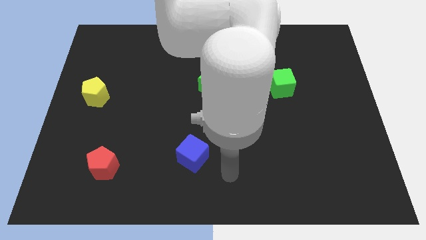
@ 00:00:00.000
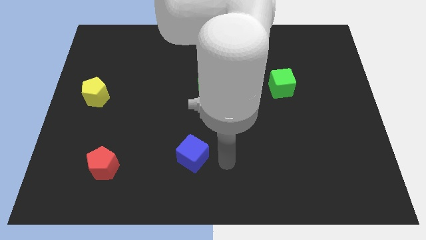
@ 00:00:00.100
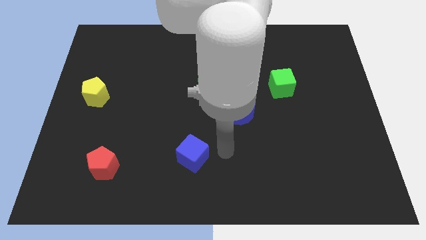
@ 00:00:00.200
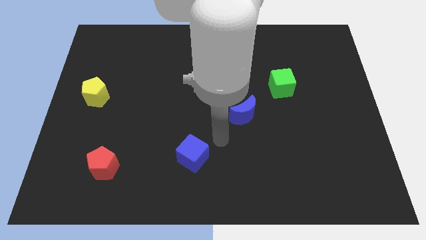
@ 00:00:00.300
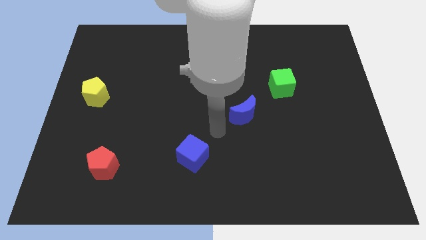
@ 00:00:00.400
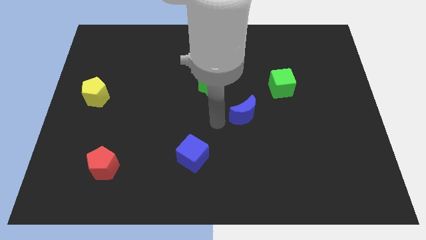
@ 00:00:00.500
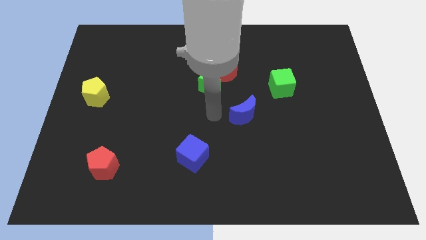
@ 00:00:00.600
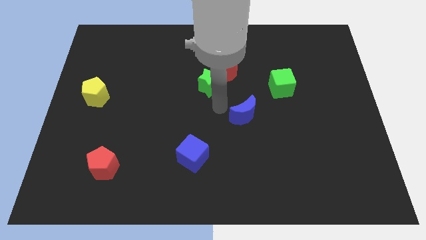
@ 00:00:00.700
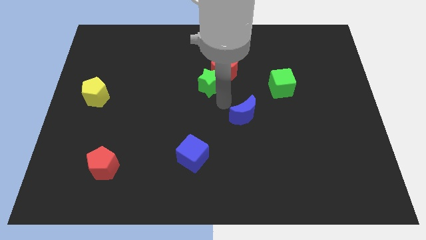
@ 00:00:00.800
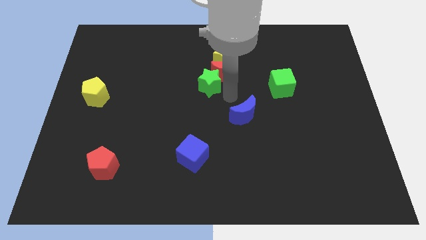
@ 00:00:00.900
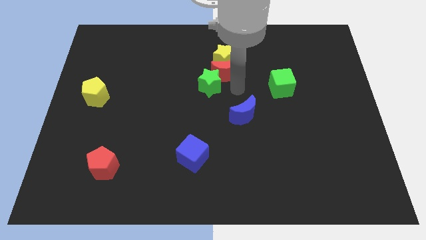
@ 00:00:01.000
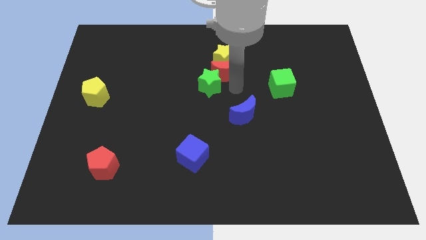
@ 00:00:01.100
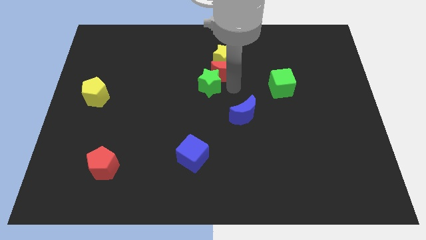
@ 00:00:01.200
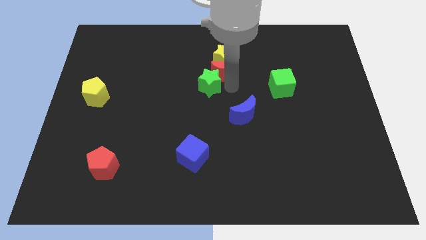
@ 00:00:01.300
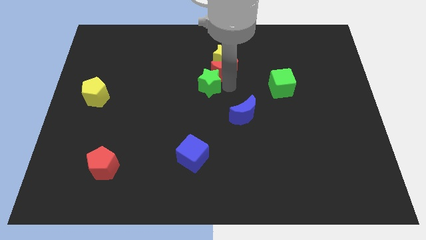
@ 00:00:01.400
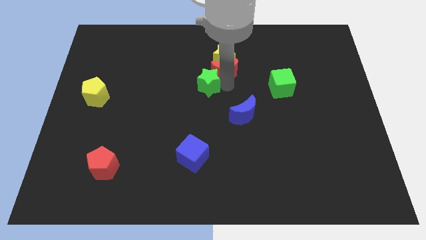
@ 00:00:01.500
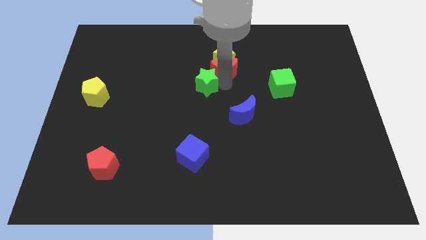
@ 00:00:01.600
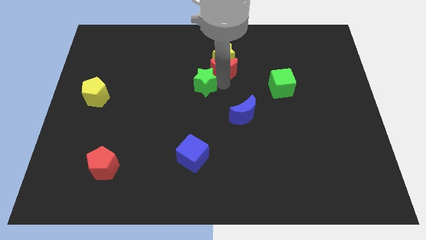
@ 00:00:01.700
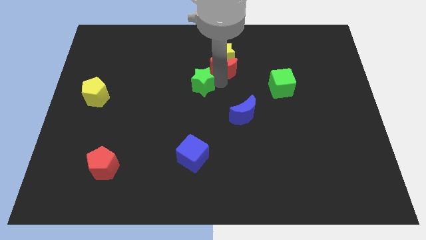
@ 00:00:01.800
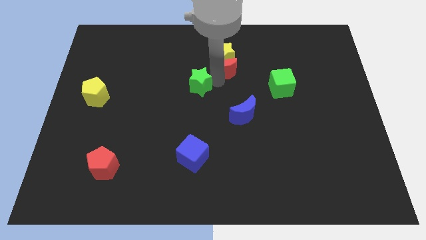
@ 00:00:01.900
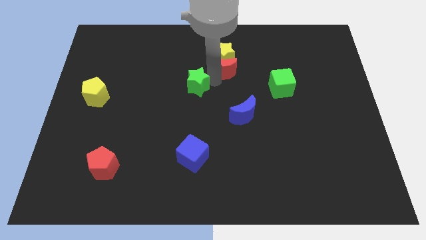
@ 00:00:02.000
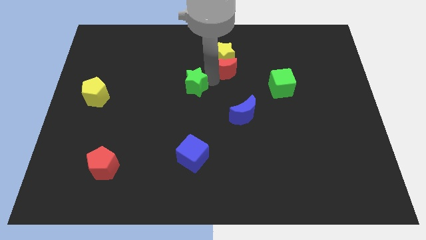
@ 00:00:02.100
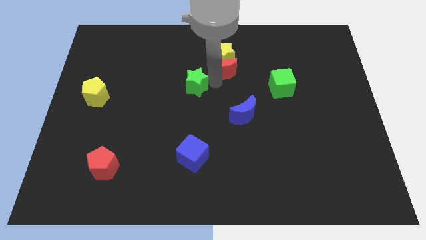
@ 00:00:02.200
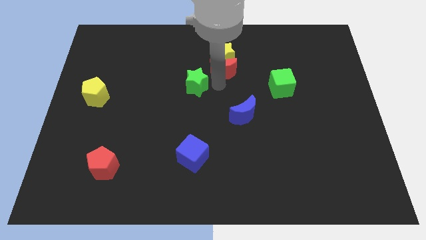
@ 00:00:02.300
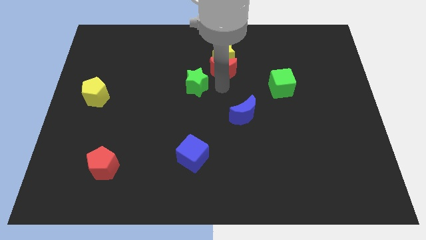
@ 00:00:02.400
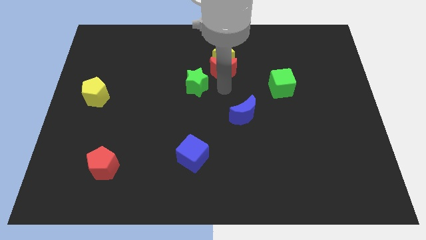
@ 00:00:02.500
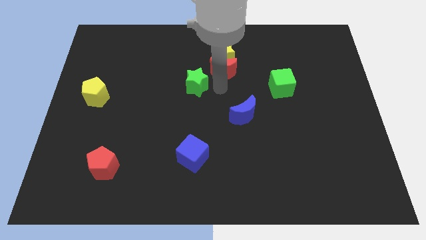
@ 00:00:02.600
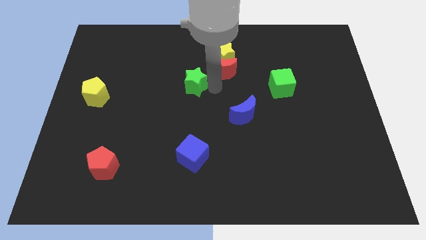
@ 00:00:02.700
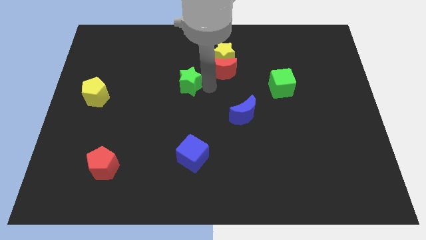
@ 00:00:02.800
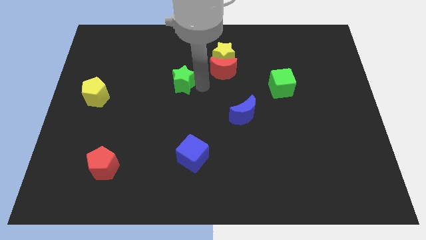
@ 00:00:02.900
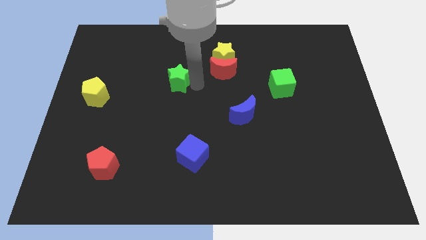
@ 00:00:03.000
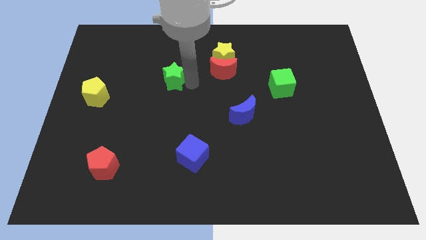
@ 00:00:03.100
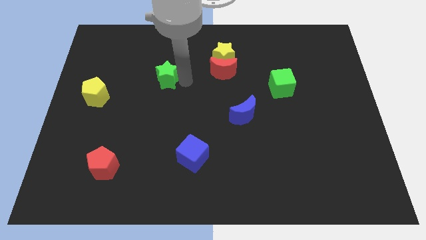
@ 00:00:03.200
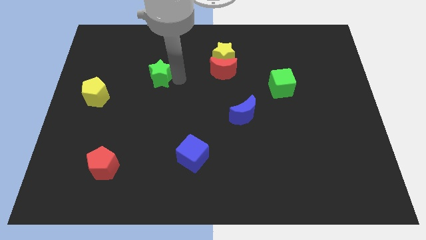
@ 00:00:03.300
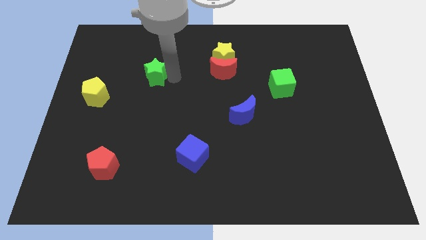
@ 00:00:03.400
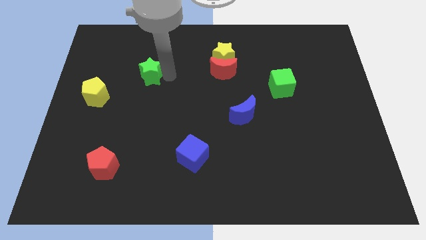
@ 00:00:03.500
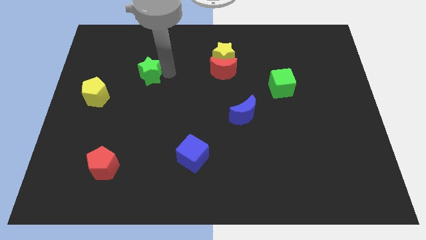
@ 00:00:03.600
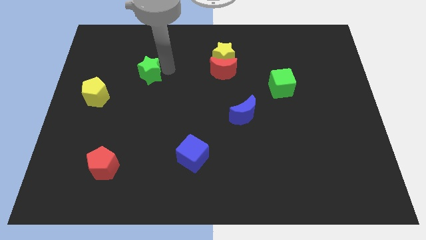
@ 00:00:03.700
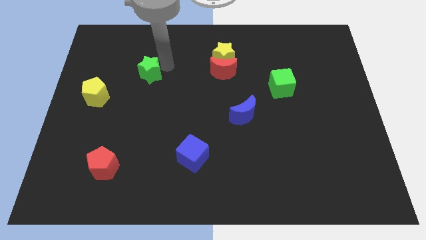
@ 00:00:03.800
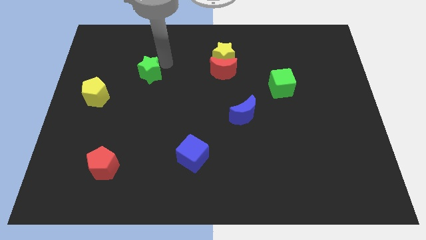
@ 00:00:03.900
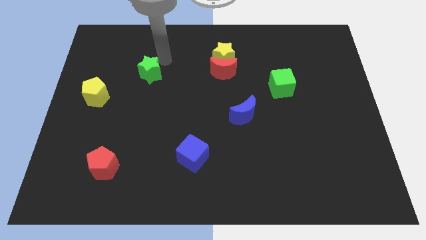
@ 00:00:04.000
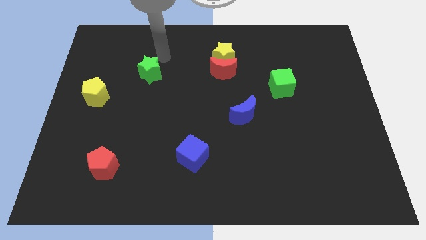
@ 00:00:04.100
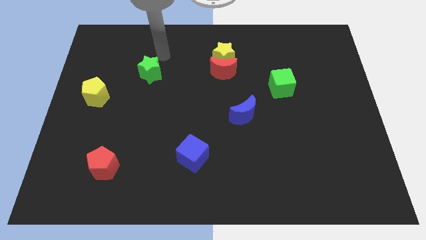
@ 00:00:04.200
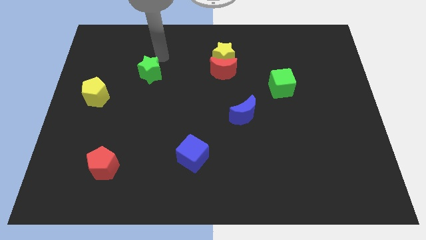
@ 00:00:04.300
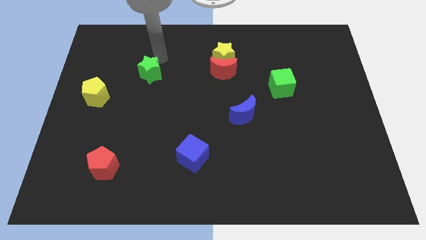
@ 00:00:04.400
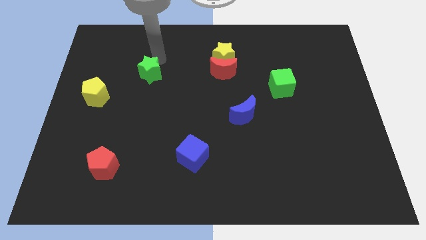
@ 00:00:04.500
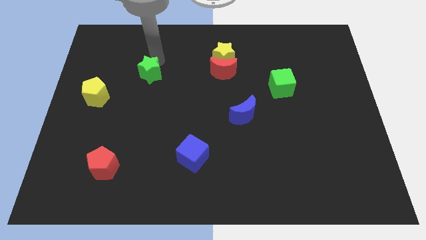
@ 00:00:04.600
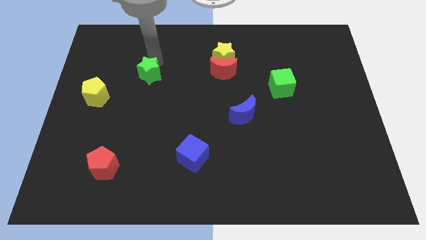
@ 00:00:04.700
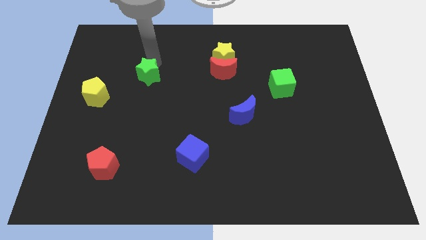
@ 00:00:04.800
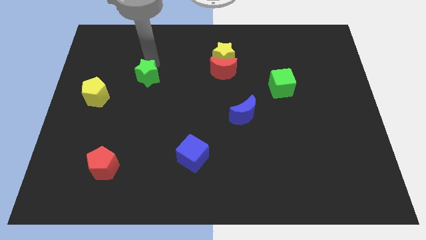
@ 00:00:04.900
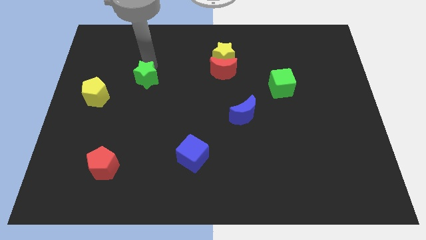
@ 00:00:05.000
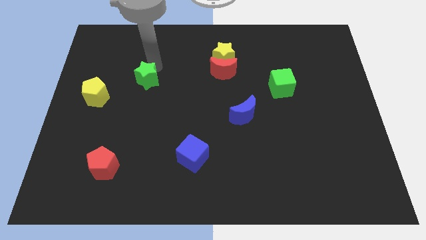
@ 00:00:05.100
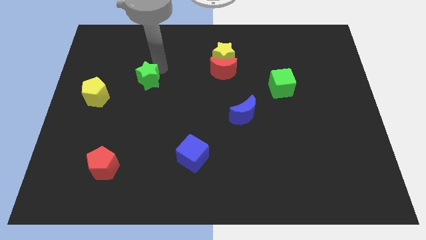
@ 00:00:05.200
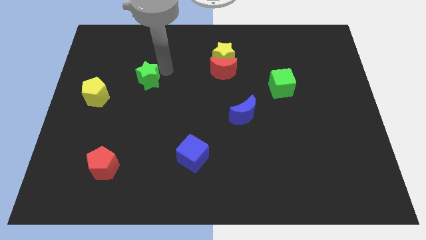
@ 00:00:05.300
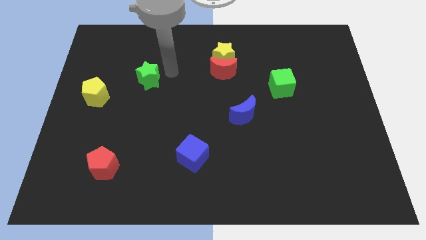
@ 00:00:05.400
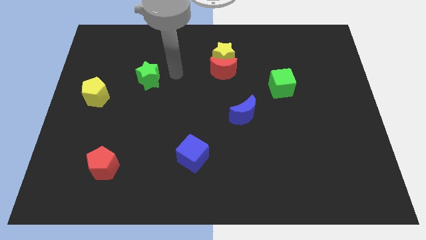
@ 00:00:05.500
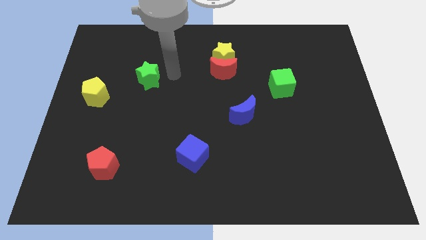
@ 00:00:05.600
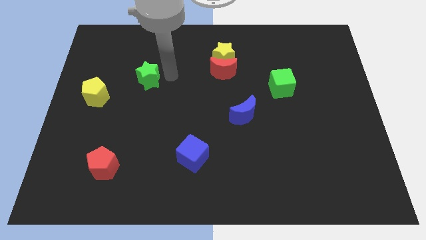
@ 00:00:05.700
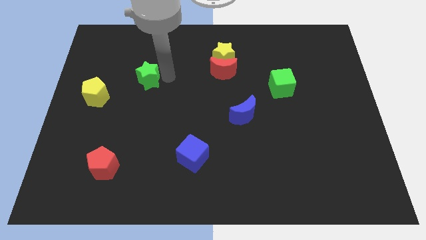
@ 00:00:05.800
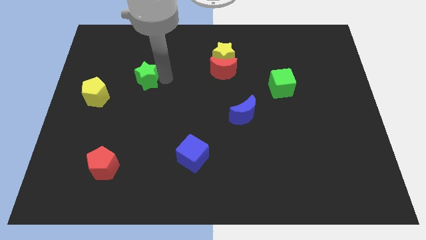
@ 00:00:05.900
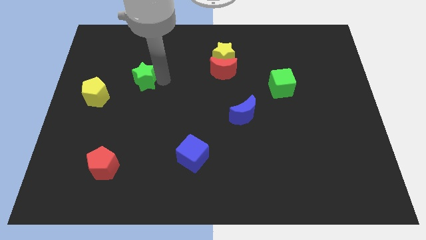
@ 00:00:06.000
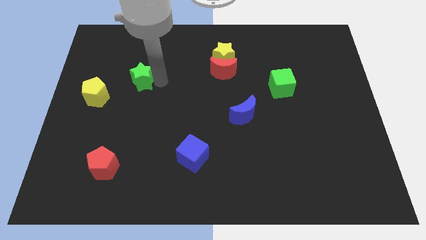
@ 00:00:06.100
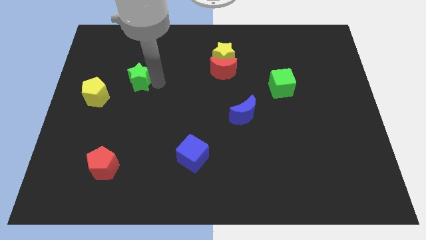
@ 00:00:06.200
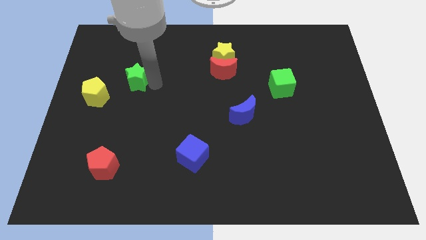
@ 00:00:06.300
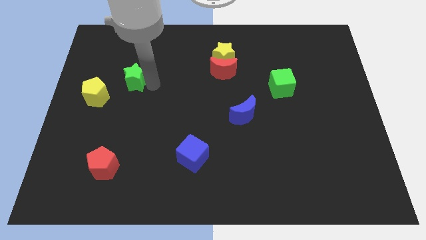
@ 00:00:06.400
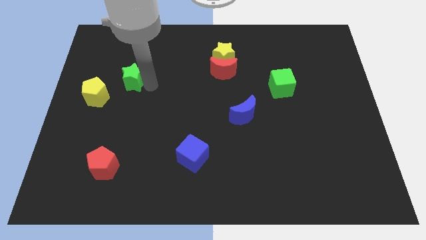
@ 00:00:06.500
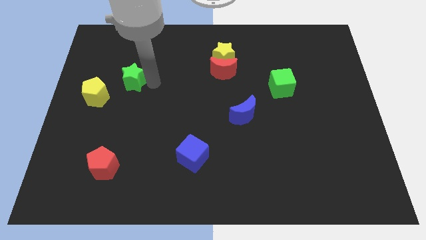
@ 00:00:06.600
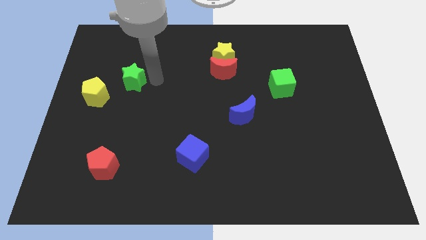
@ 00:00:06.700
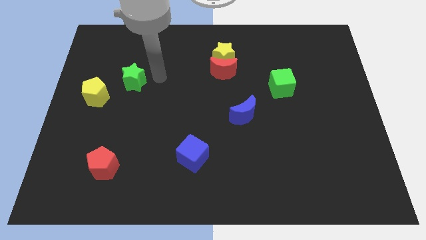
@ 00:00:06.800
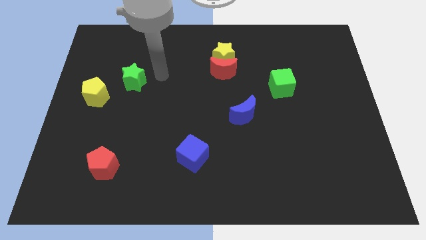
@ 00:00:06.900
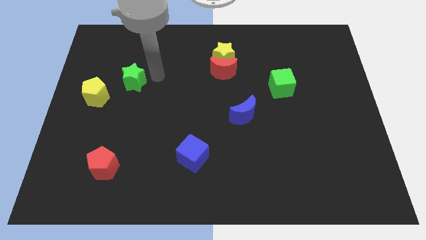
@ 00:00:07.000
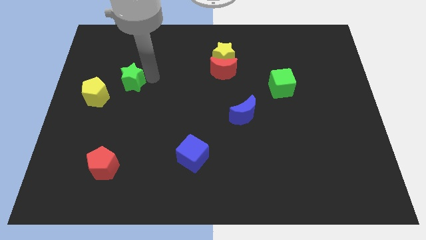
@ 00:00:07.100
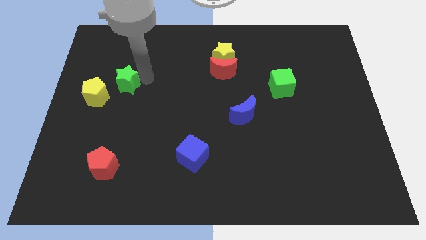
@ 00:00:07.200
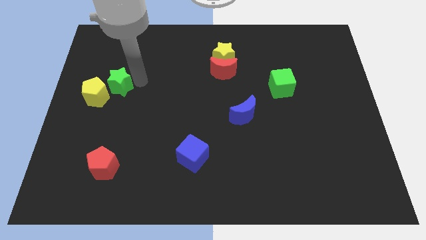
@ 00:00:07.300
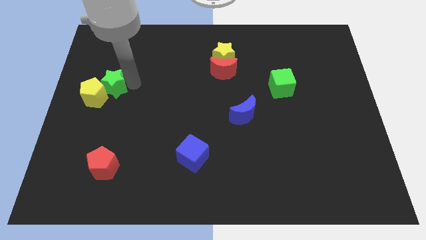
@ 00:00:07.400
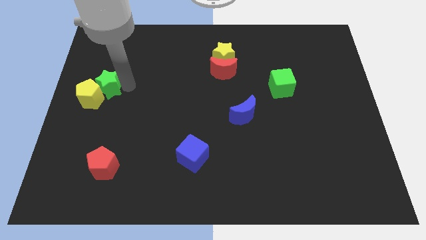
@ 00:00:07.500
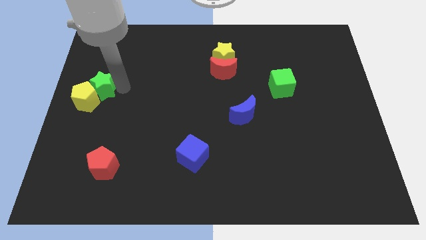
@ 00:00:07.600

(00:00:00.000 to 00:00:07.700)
move the green star to the left side
